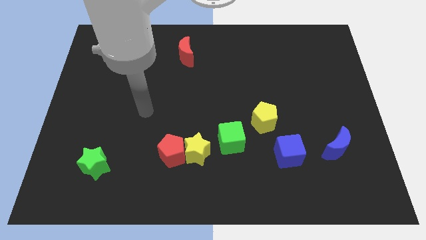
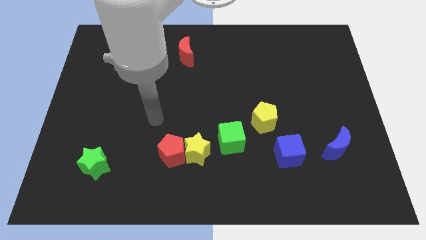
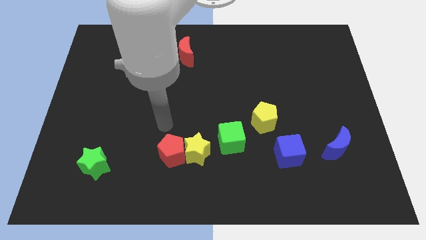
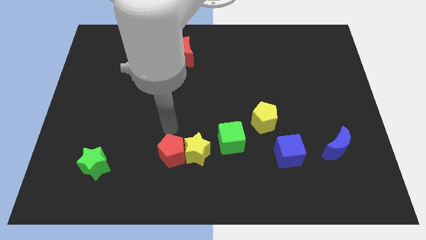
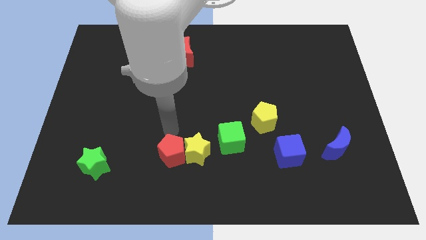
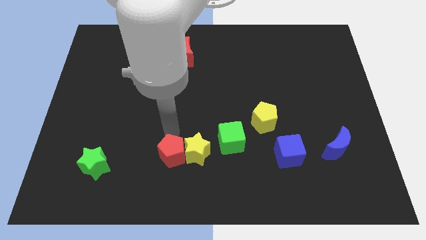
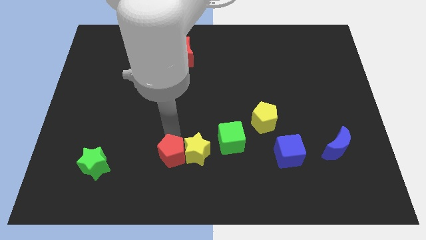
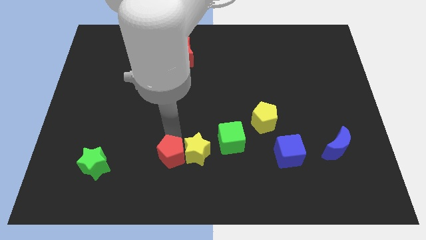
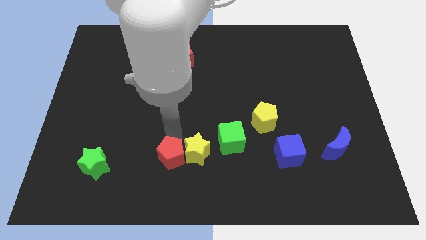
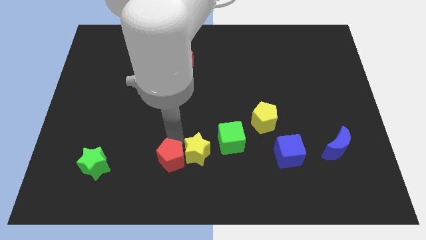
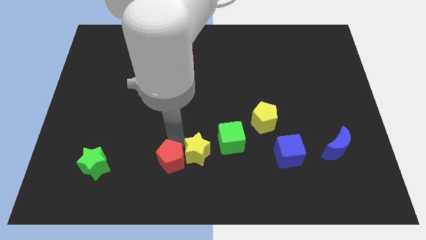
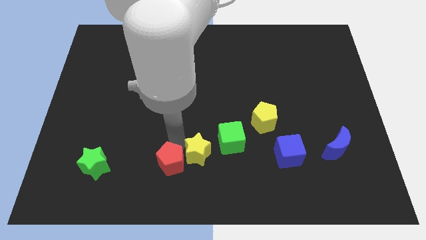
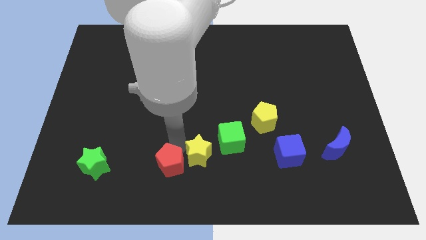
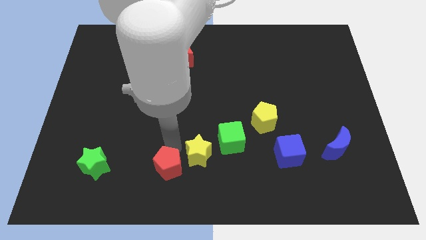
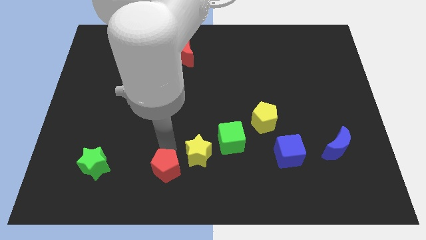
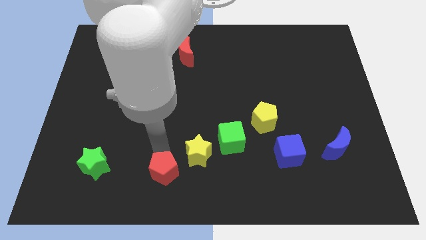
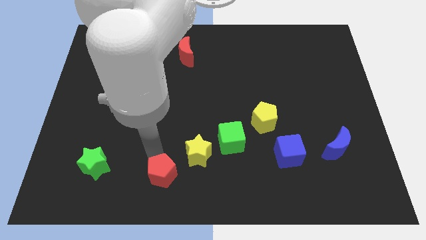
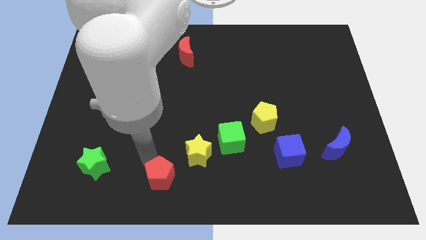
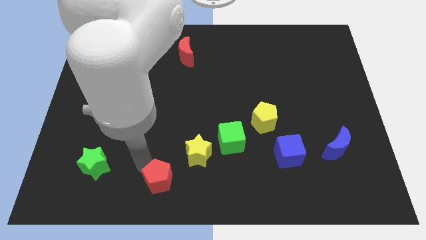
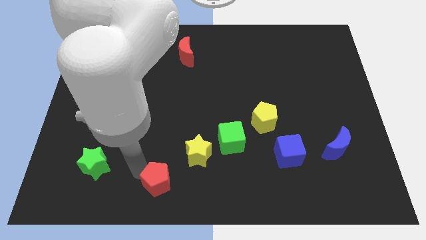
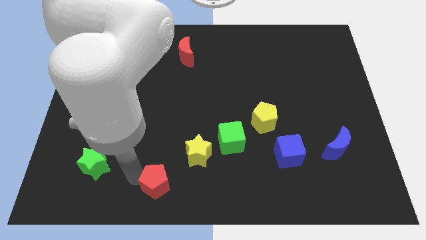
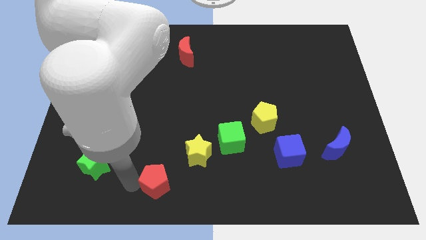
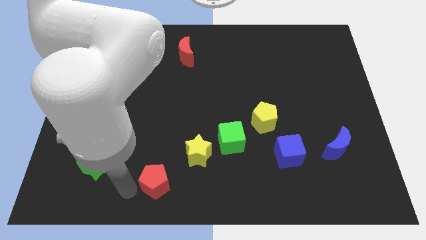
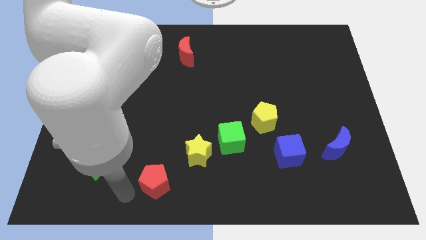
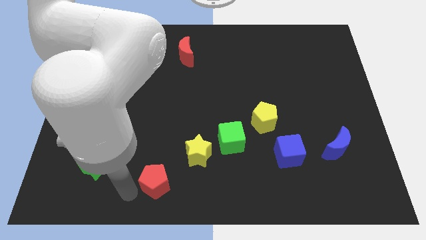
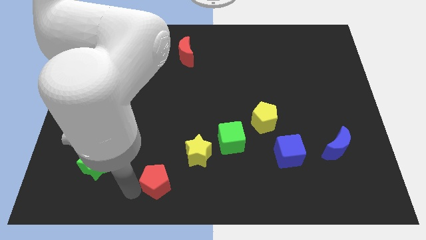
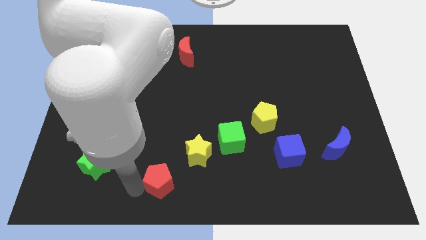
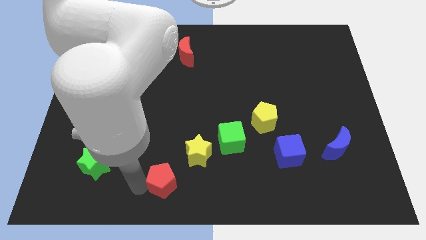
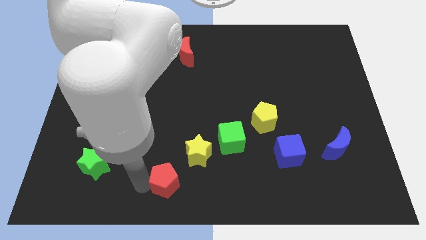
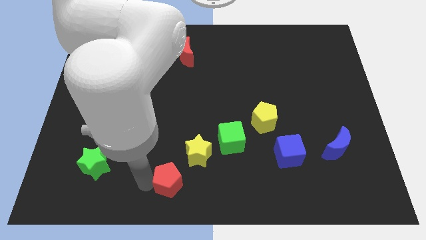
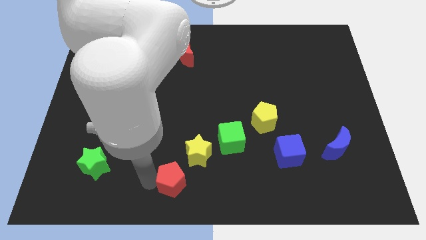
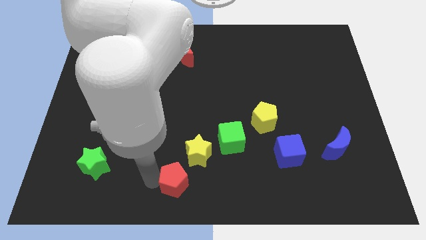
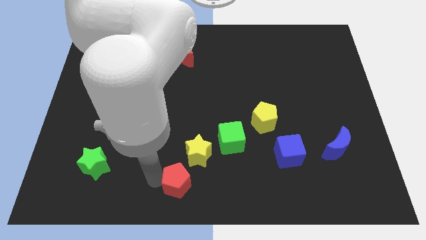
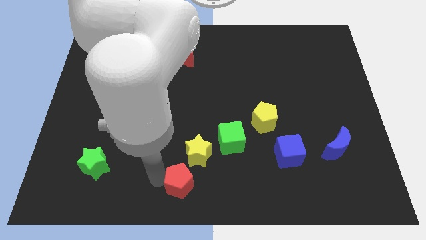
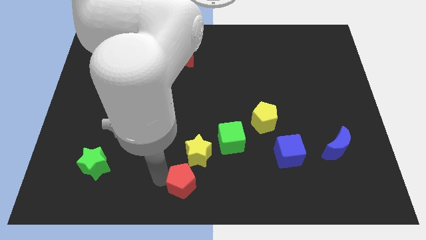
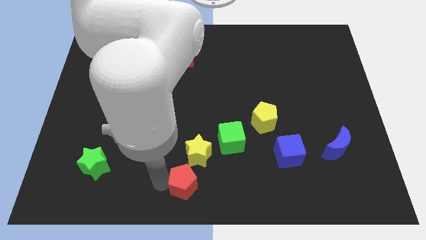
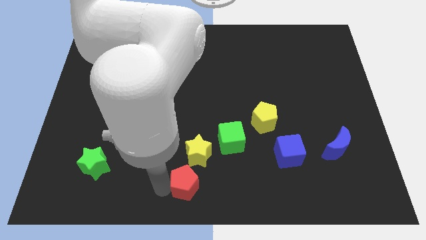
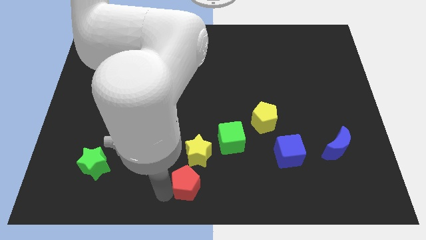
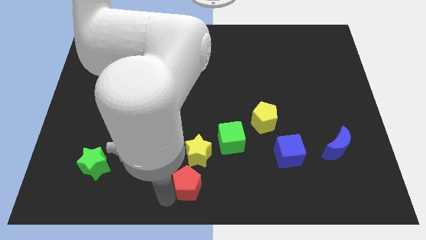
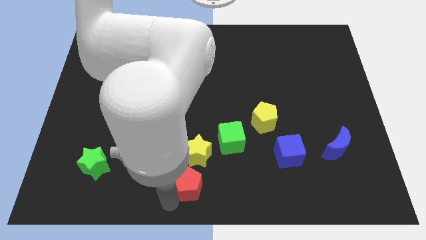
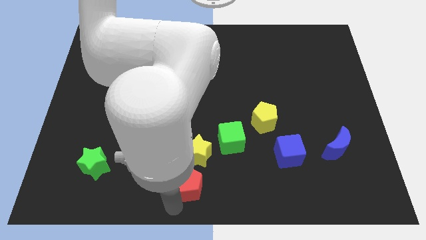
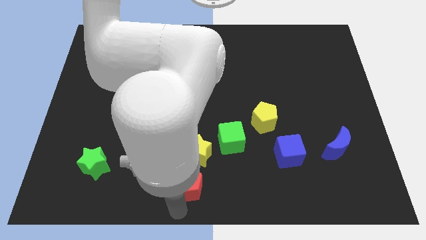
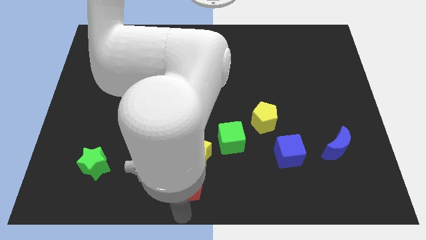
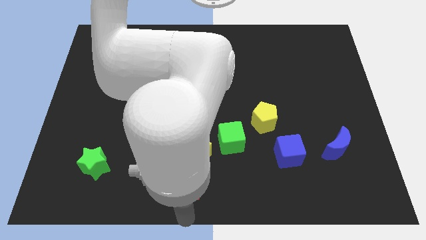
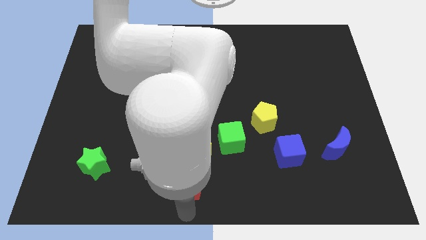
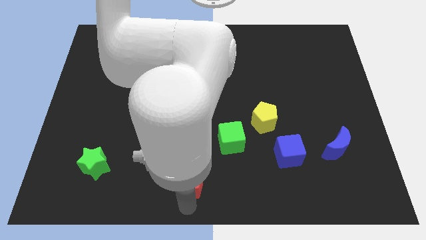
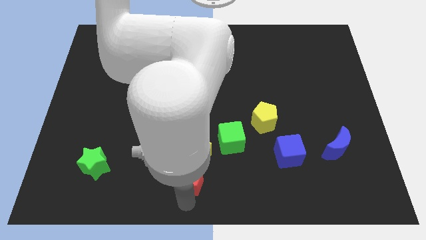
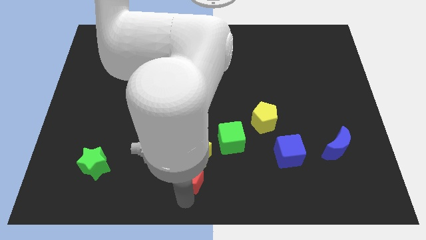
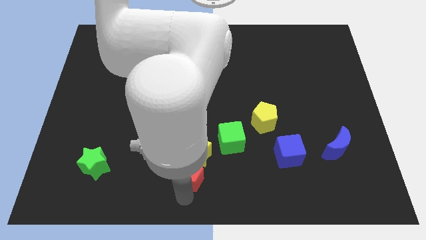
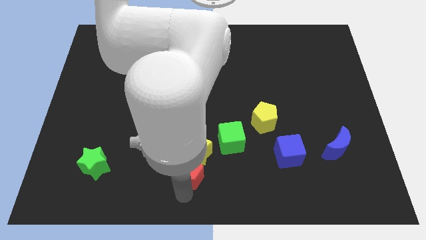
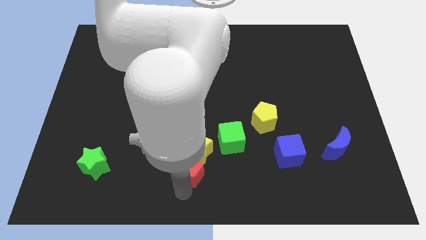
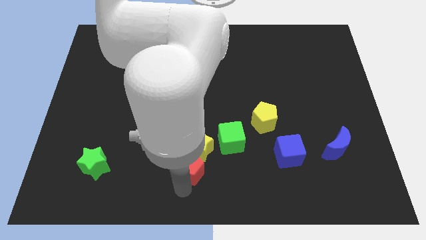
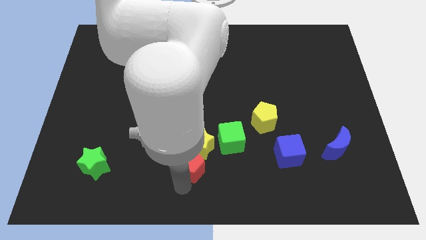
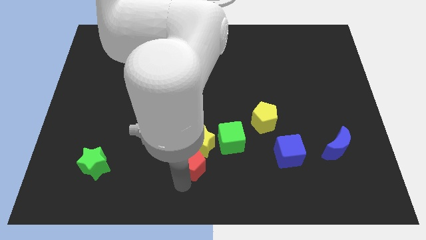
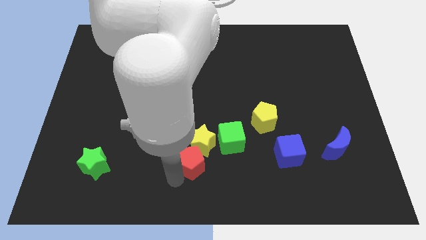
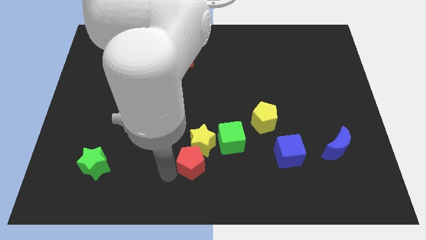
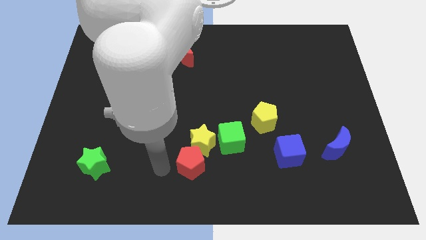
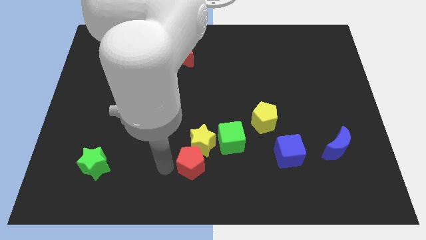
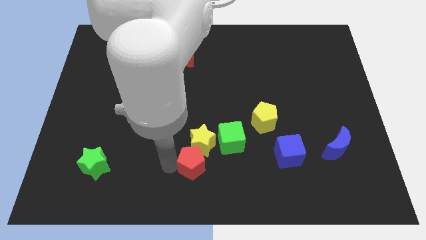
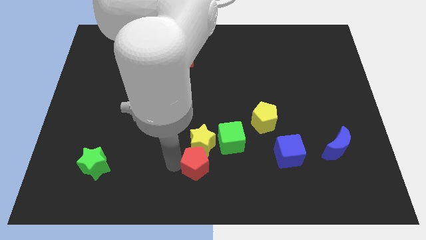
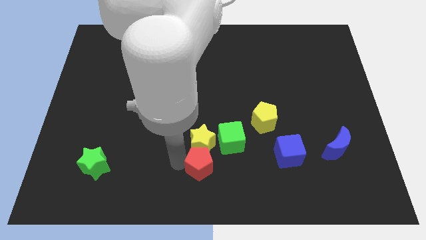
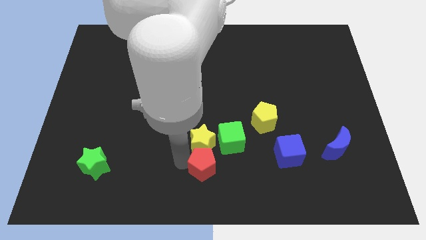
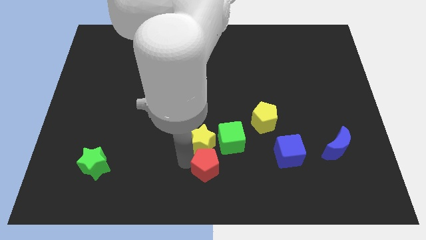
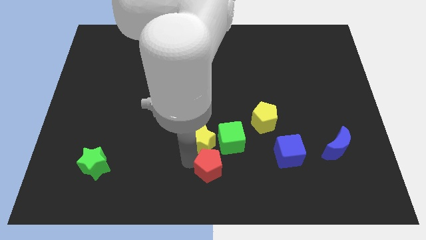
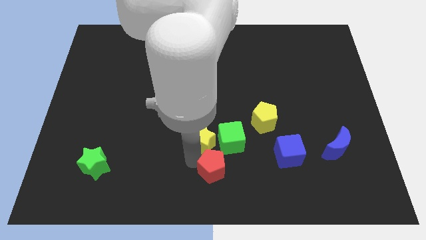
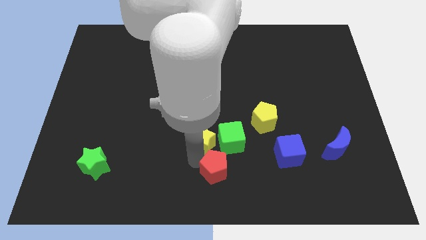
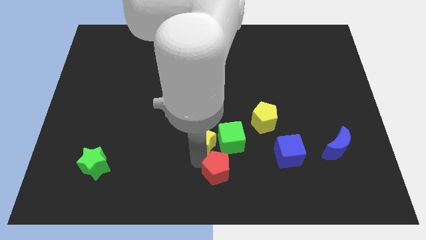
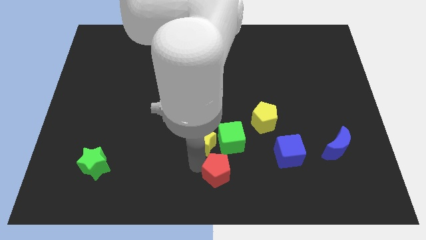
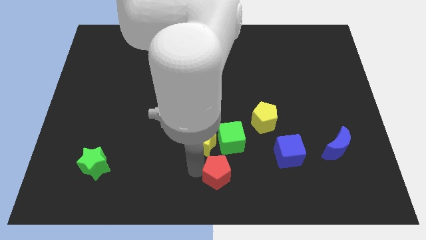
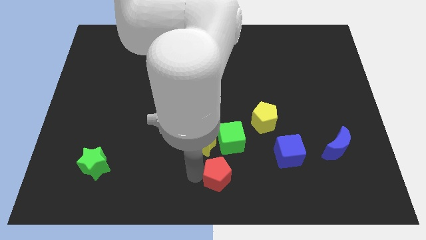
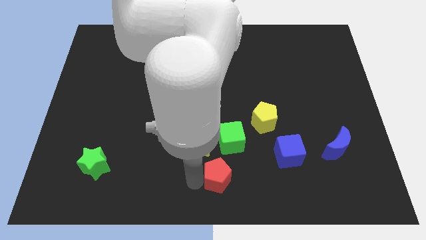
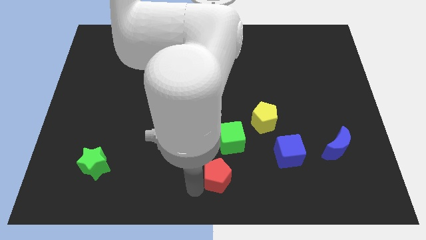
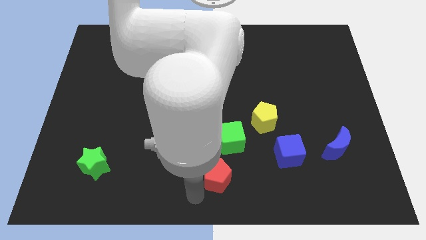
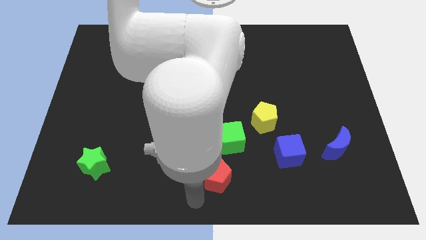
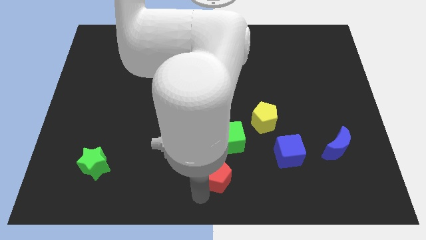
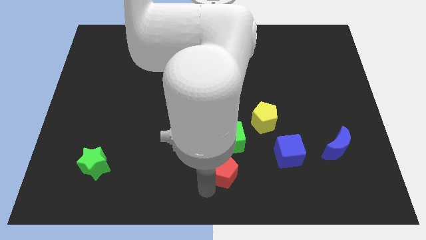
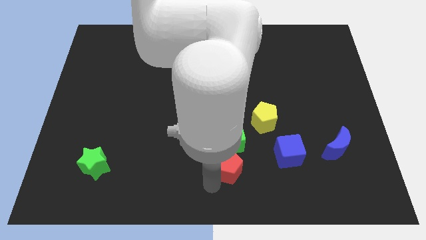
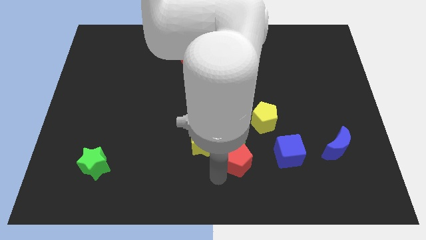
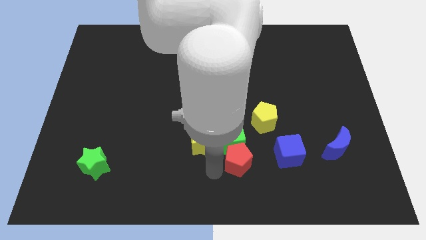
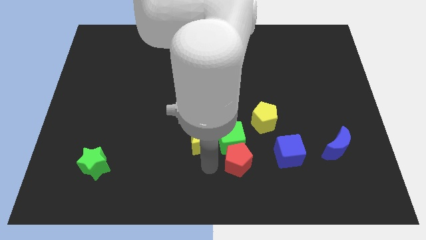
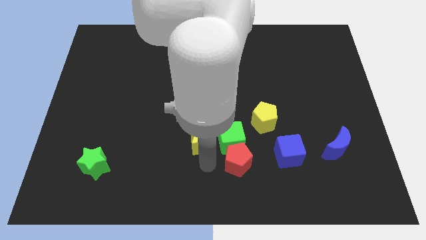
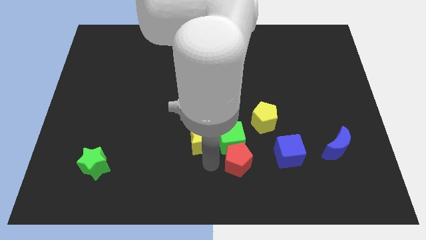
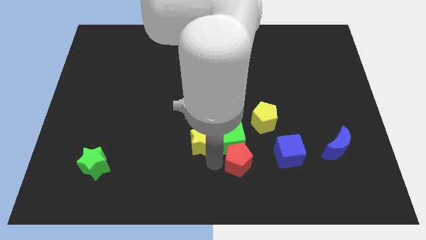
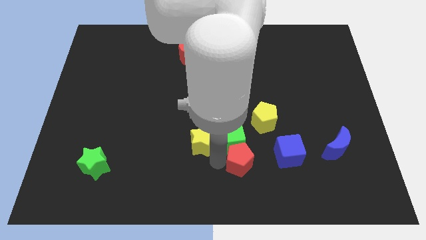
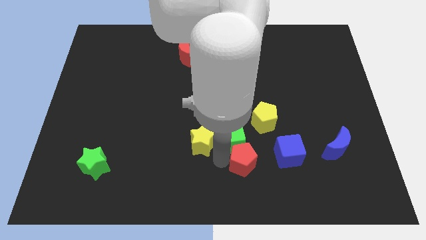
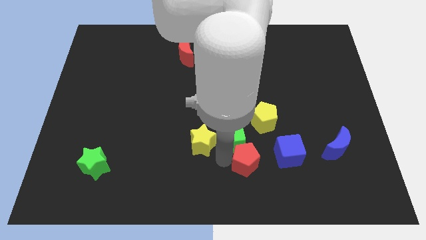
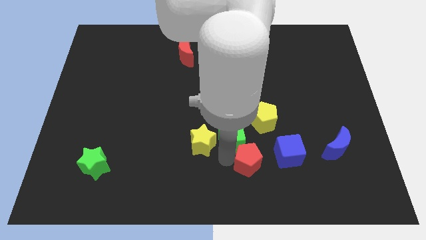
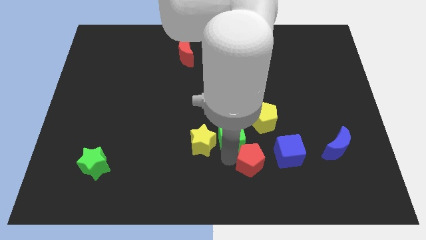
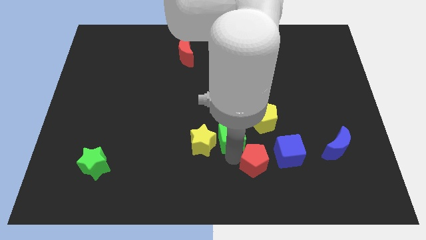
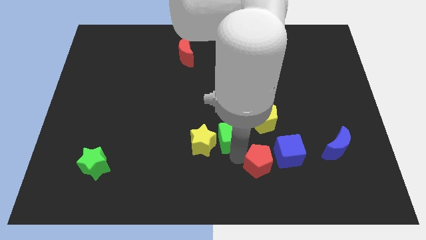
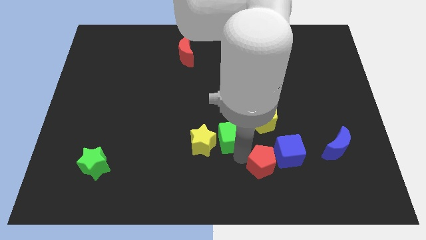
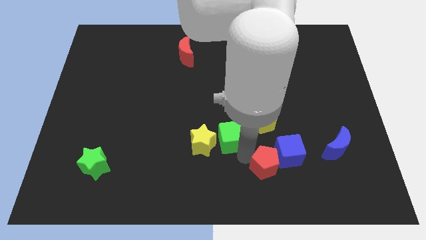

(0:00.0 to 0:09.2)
put the red pentagon next to the blue cube
